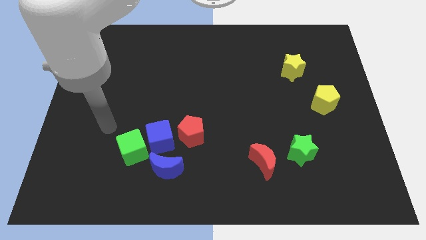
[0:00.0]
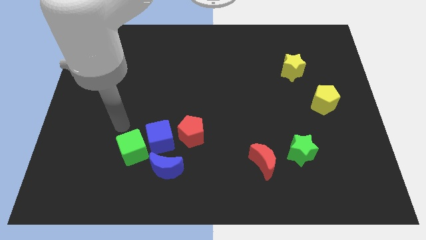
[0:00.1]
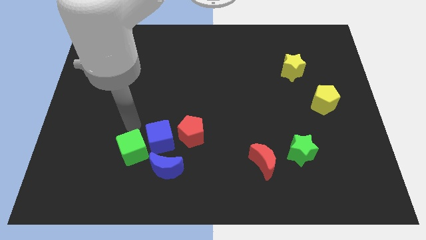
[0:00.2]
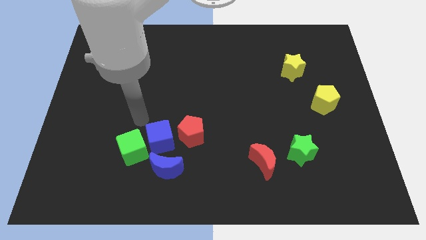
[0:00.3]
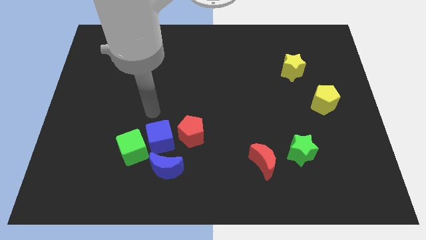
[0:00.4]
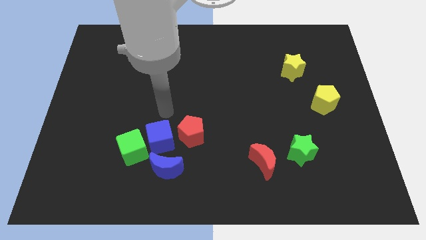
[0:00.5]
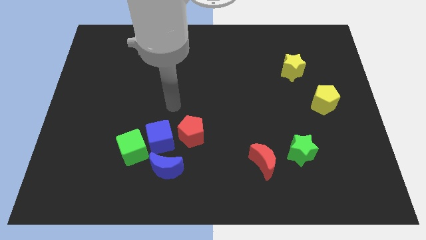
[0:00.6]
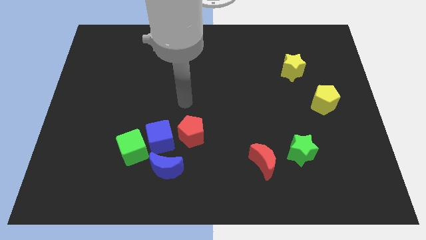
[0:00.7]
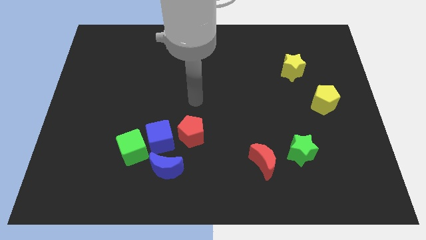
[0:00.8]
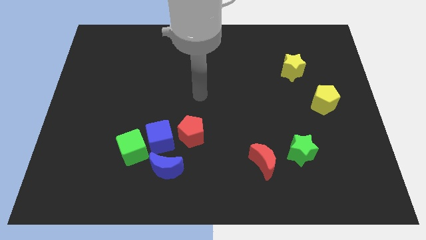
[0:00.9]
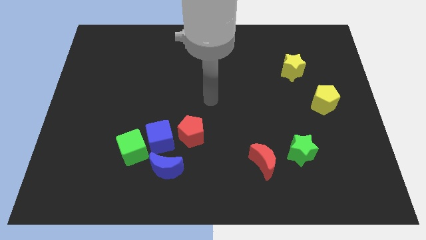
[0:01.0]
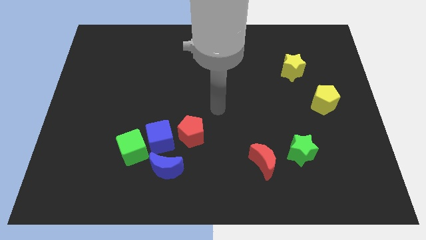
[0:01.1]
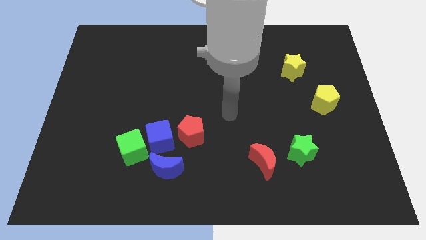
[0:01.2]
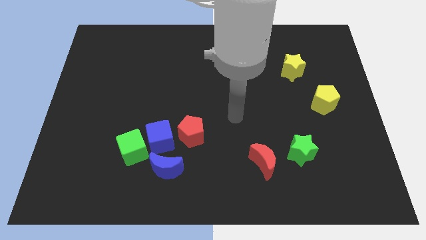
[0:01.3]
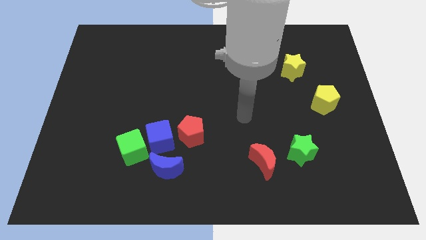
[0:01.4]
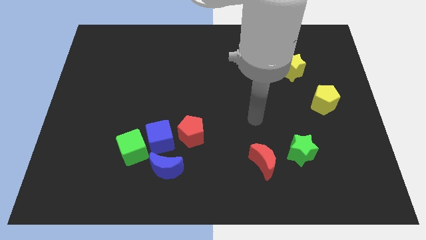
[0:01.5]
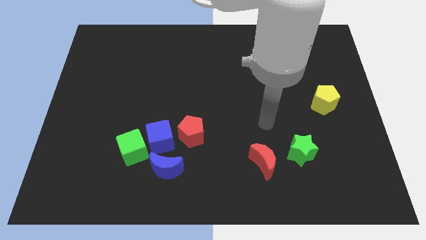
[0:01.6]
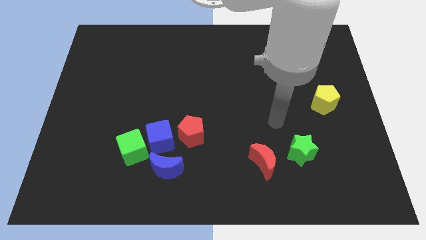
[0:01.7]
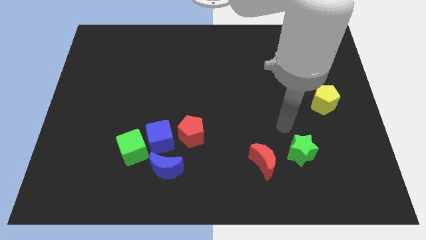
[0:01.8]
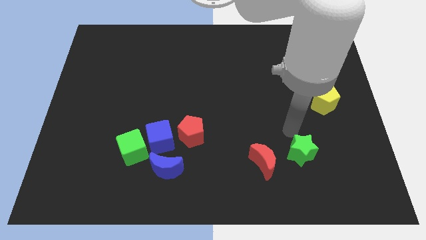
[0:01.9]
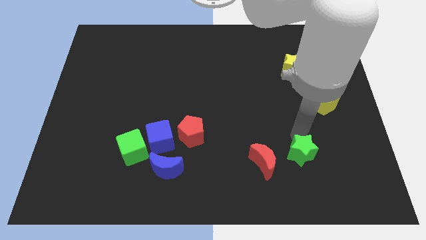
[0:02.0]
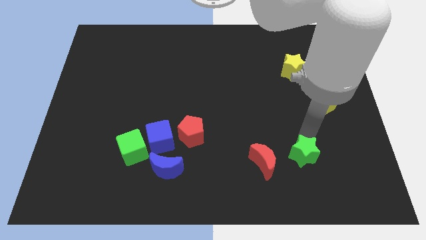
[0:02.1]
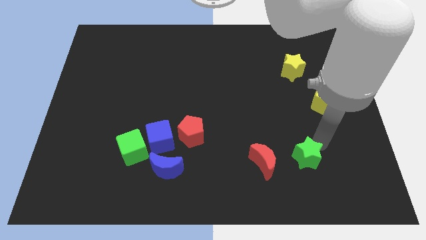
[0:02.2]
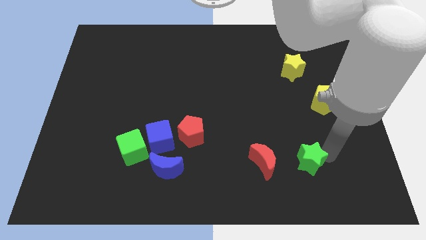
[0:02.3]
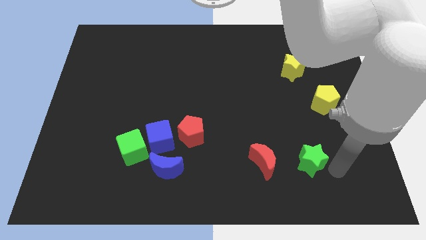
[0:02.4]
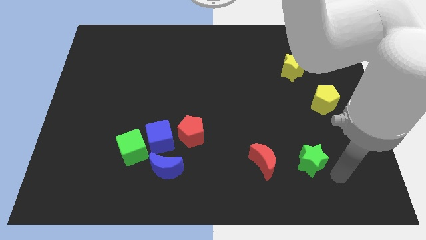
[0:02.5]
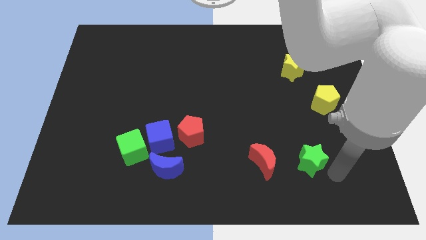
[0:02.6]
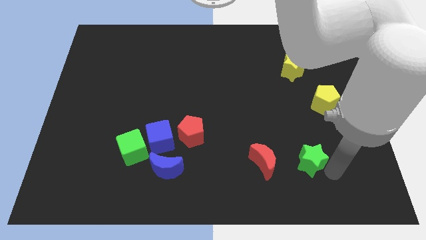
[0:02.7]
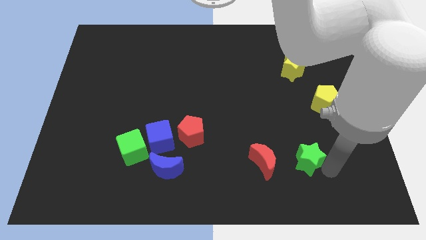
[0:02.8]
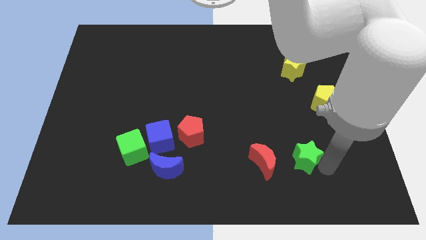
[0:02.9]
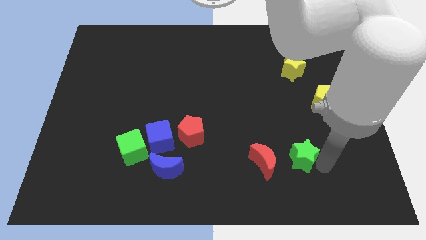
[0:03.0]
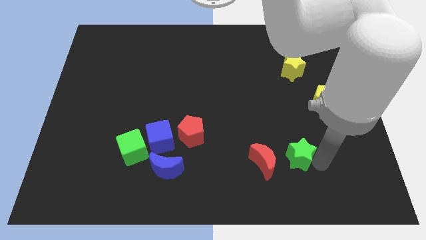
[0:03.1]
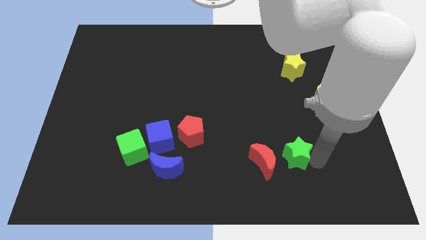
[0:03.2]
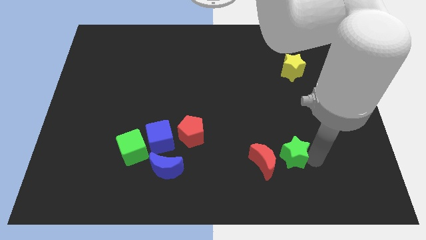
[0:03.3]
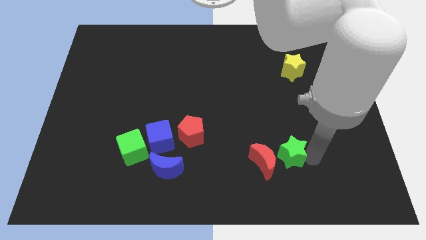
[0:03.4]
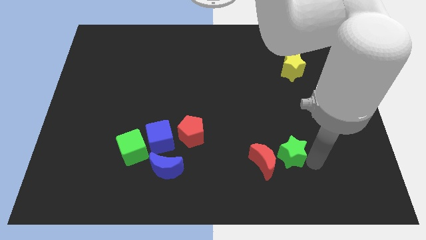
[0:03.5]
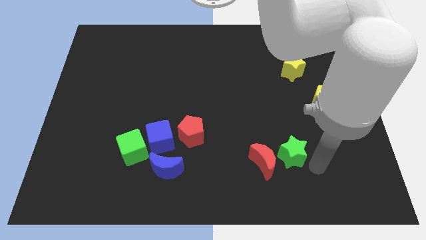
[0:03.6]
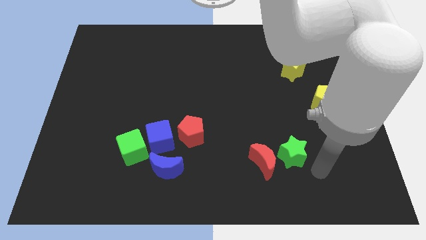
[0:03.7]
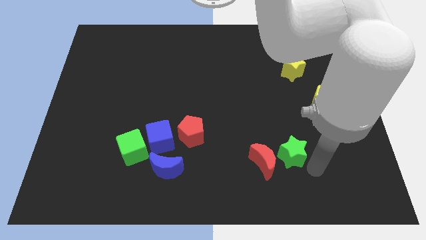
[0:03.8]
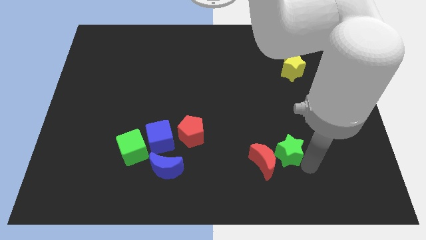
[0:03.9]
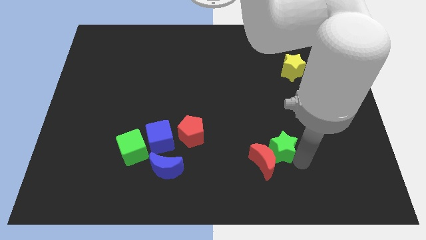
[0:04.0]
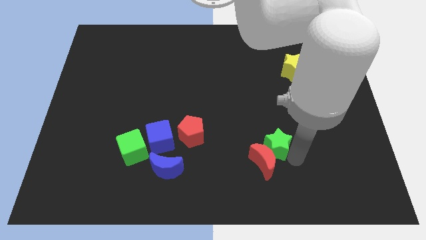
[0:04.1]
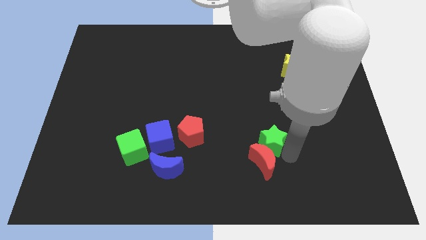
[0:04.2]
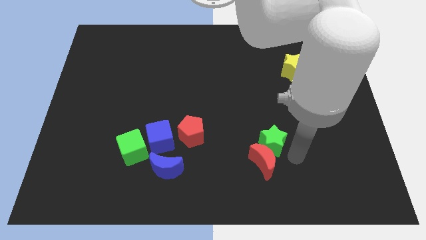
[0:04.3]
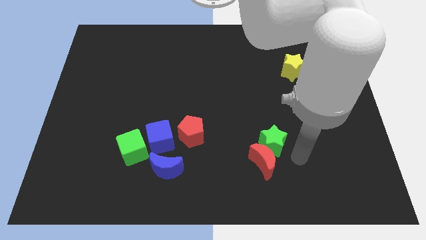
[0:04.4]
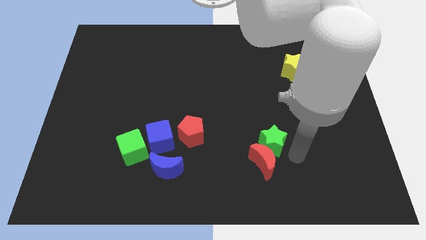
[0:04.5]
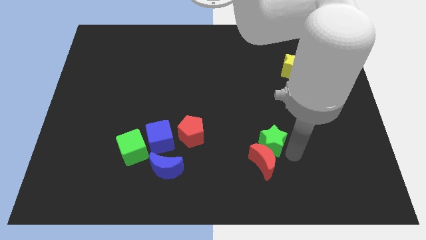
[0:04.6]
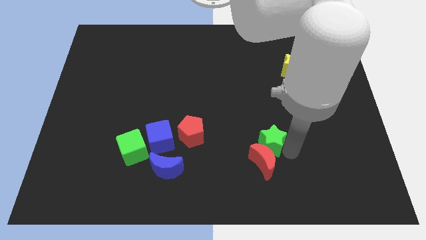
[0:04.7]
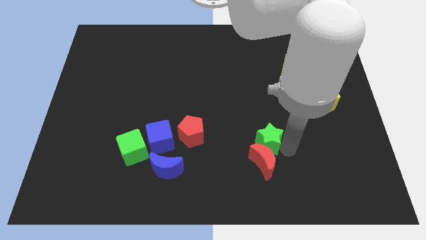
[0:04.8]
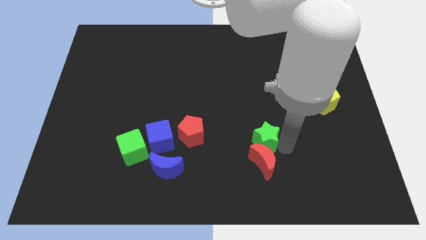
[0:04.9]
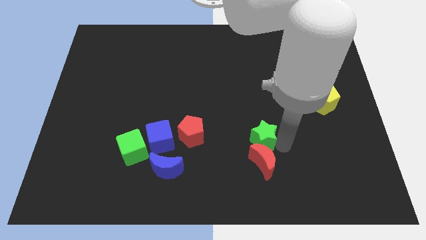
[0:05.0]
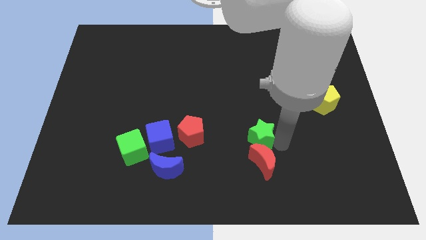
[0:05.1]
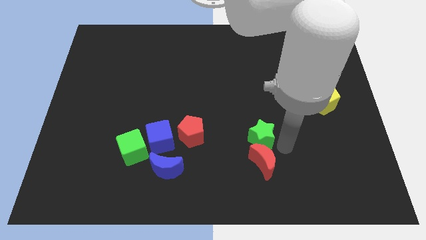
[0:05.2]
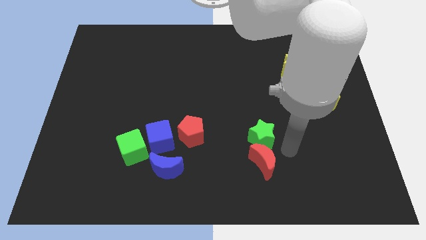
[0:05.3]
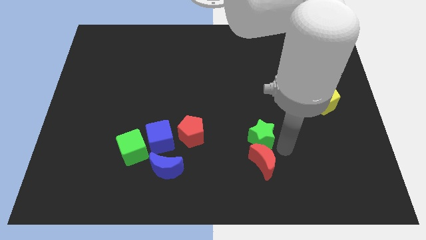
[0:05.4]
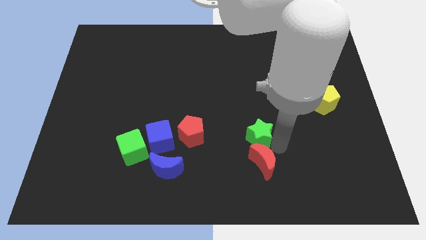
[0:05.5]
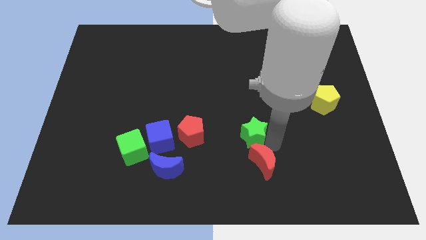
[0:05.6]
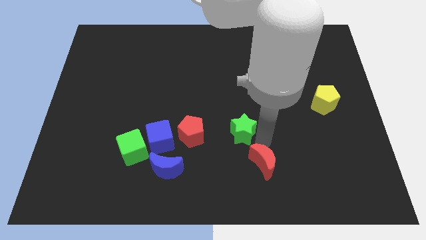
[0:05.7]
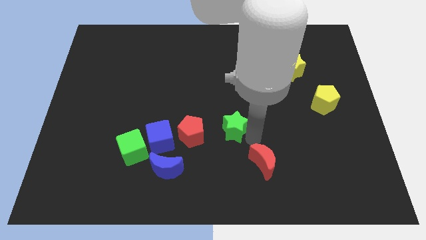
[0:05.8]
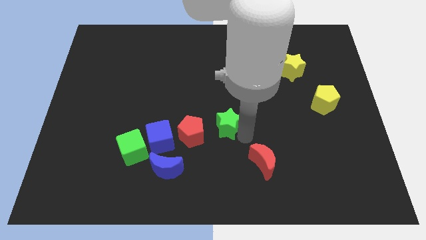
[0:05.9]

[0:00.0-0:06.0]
slide the green star to the top right of the red pentagon

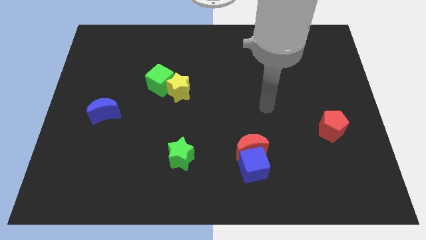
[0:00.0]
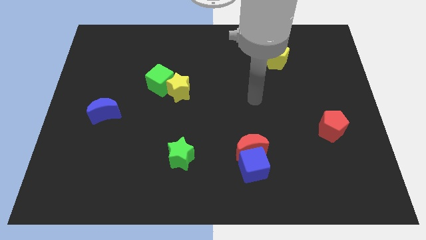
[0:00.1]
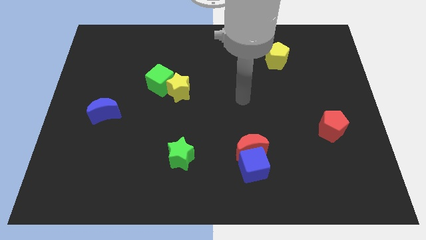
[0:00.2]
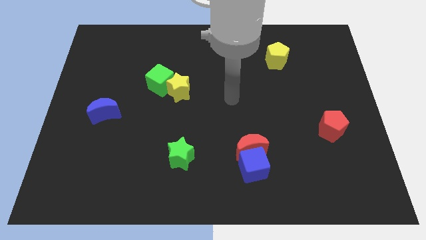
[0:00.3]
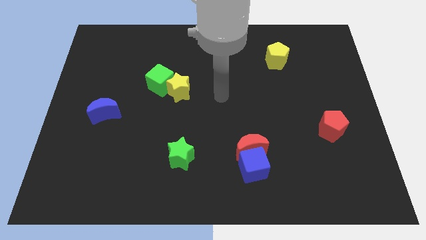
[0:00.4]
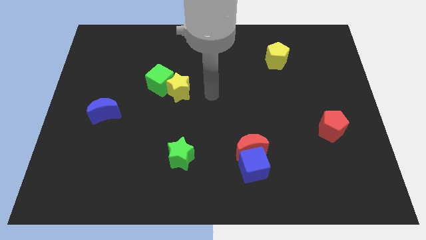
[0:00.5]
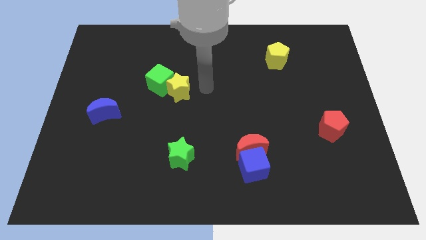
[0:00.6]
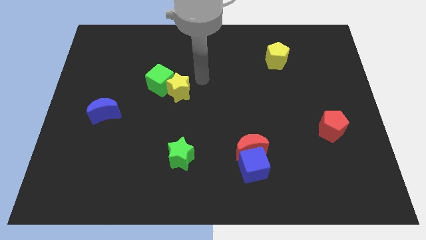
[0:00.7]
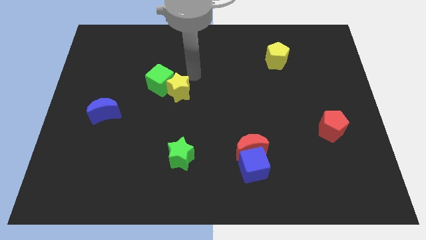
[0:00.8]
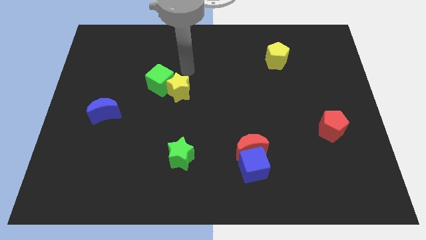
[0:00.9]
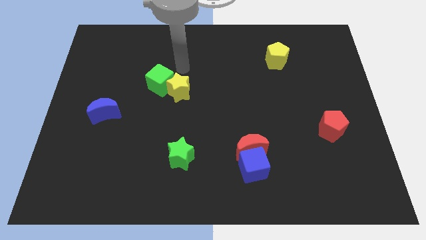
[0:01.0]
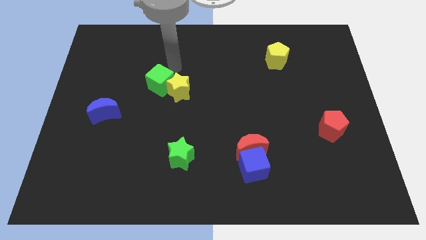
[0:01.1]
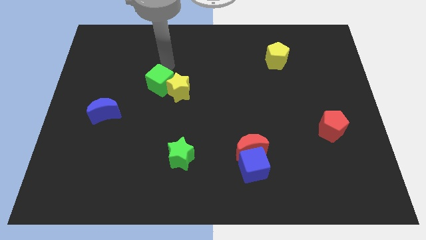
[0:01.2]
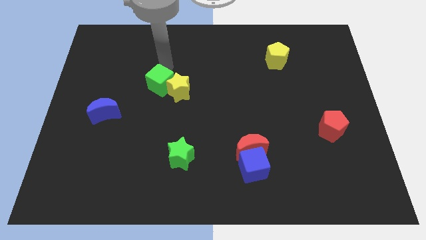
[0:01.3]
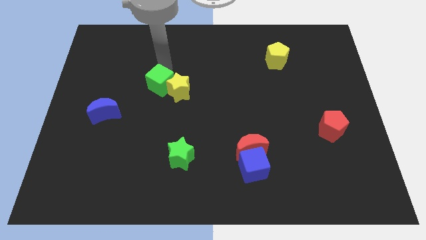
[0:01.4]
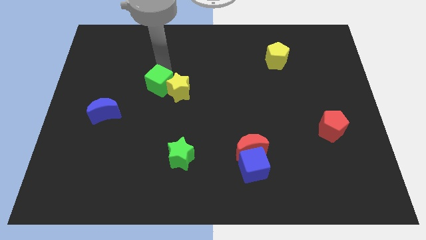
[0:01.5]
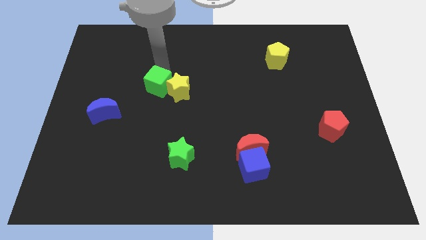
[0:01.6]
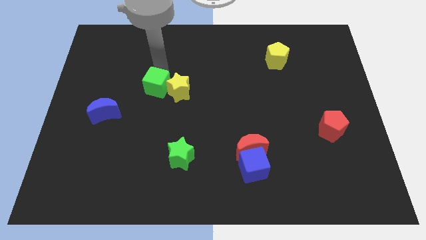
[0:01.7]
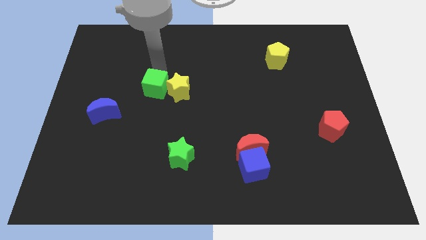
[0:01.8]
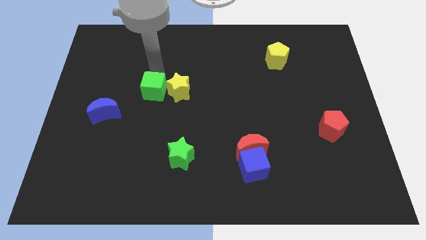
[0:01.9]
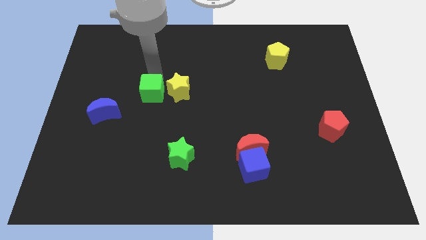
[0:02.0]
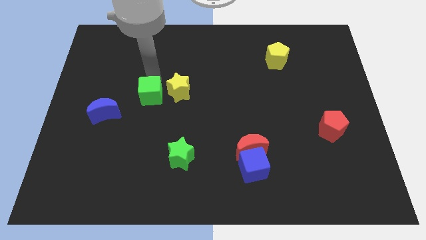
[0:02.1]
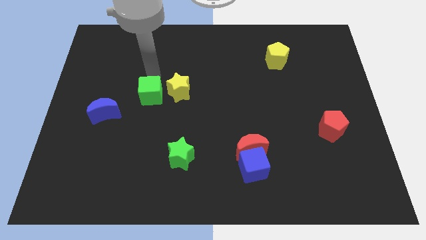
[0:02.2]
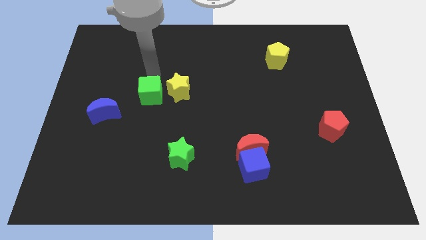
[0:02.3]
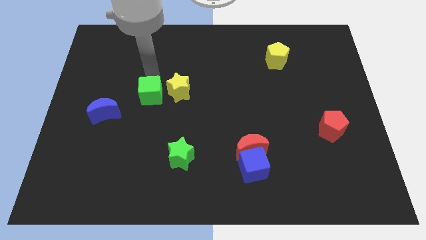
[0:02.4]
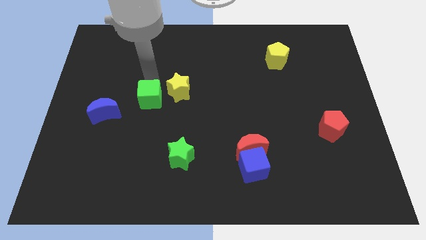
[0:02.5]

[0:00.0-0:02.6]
put the green cube right of the blue moon
